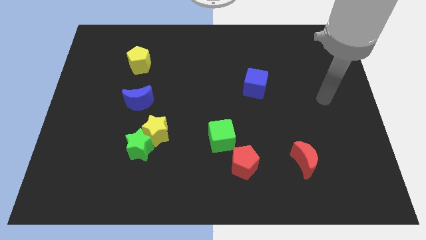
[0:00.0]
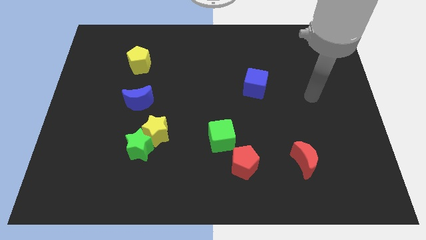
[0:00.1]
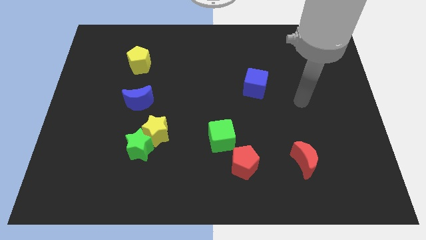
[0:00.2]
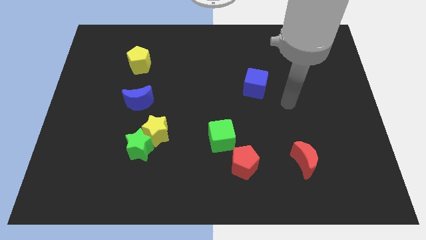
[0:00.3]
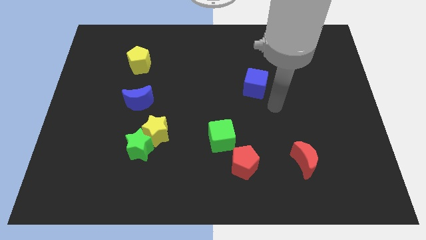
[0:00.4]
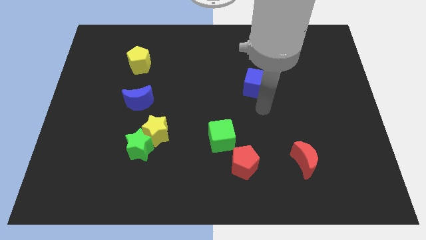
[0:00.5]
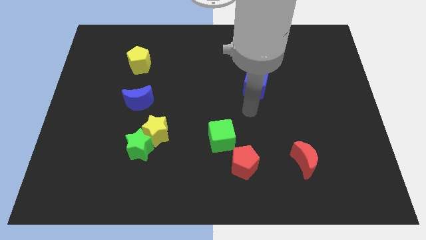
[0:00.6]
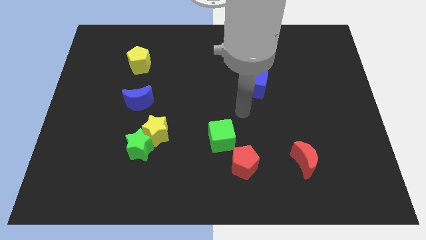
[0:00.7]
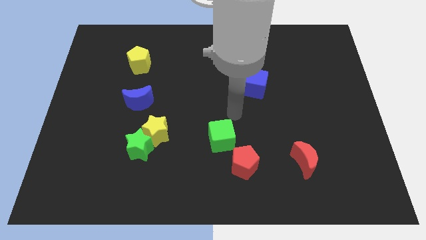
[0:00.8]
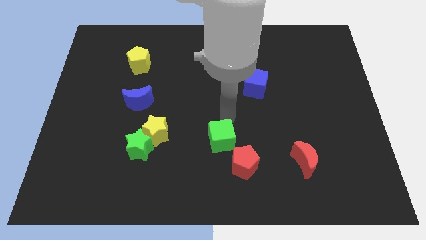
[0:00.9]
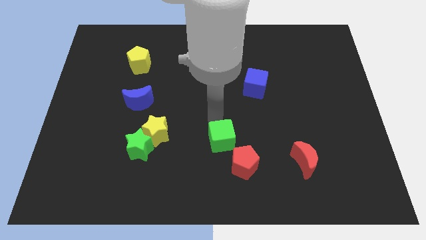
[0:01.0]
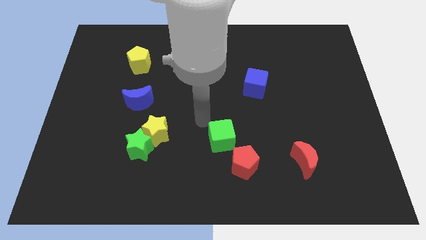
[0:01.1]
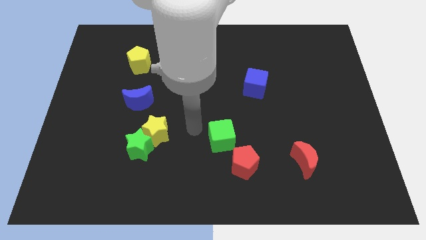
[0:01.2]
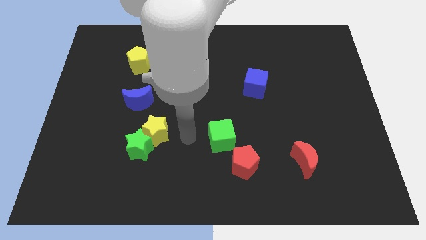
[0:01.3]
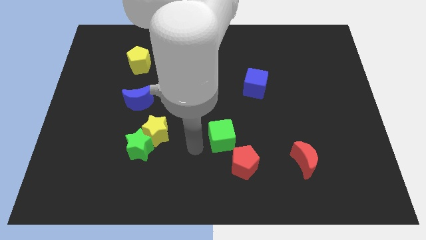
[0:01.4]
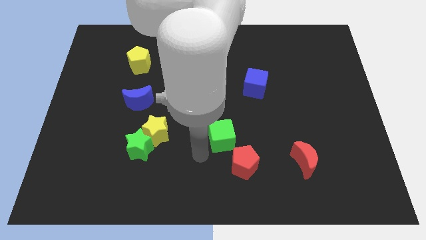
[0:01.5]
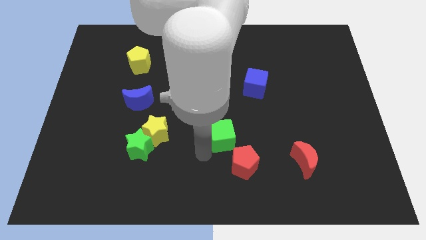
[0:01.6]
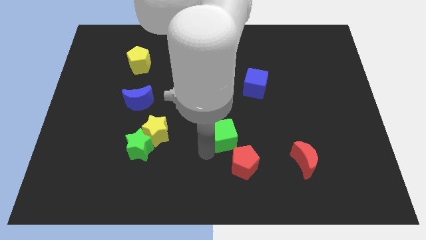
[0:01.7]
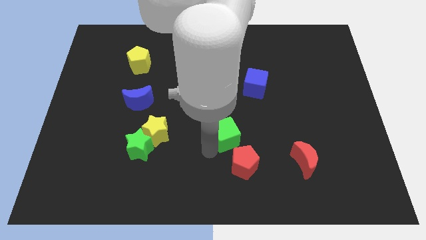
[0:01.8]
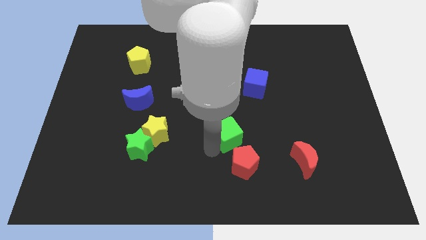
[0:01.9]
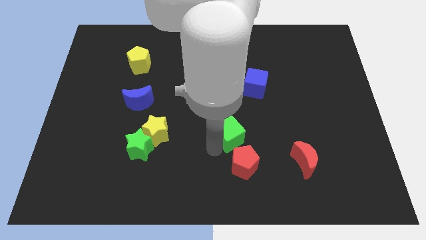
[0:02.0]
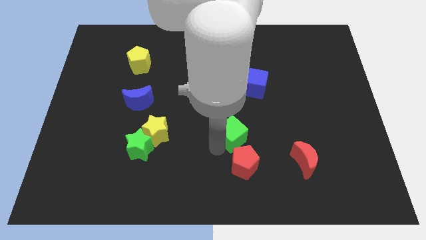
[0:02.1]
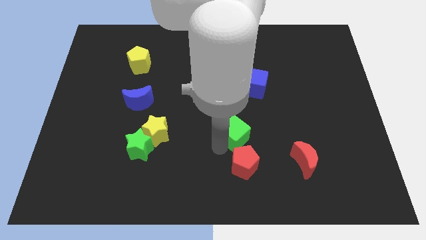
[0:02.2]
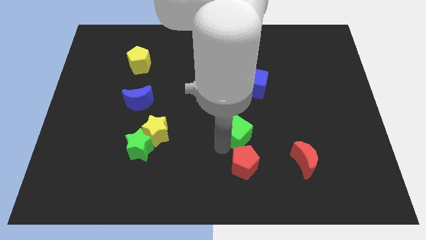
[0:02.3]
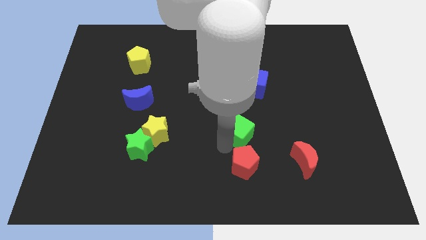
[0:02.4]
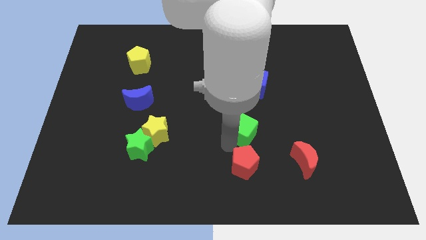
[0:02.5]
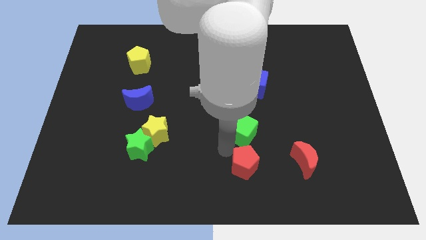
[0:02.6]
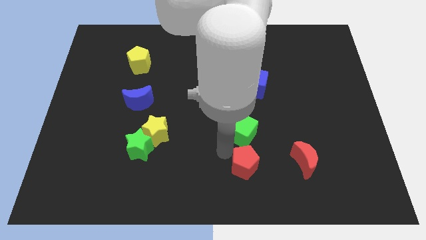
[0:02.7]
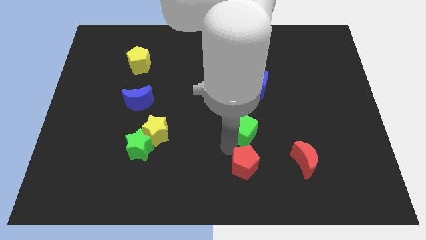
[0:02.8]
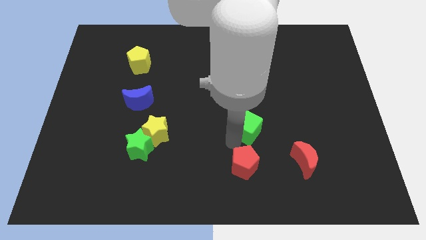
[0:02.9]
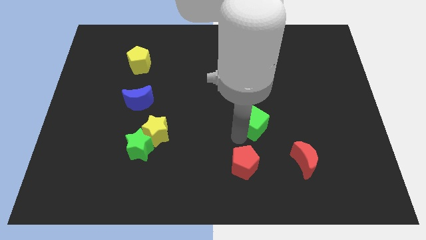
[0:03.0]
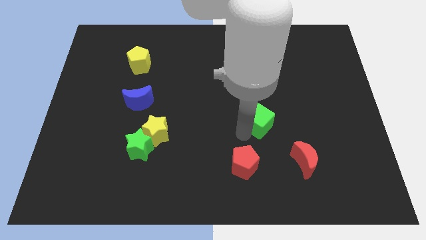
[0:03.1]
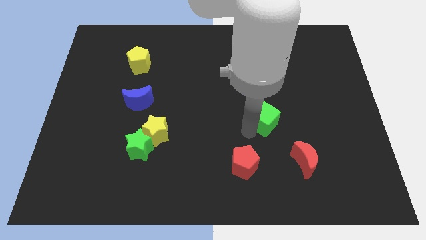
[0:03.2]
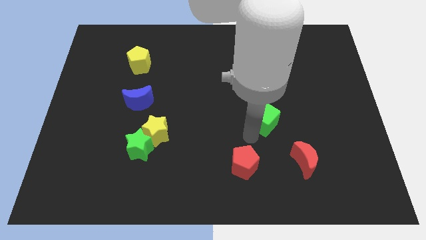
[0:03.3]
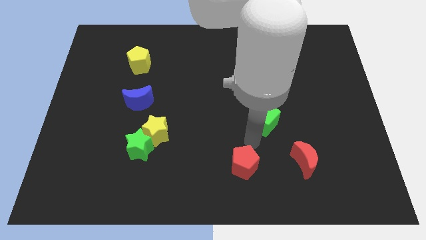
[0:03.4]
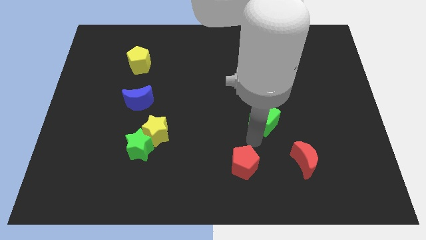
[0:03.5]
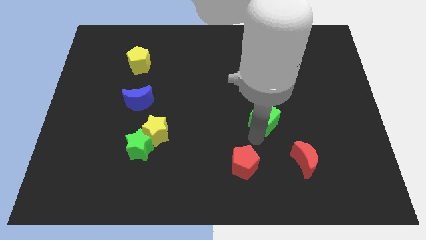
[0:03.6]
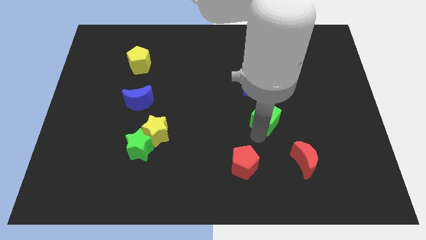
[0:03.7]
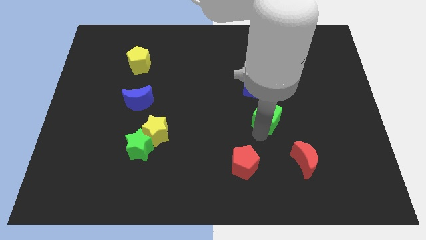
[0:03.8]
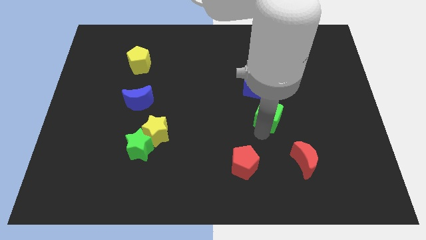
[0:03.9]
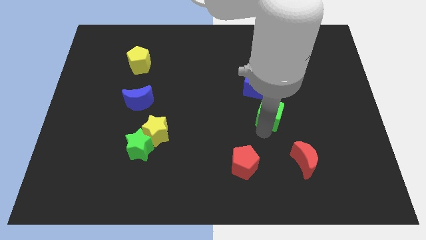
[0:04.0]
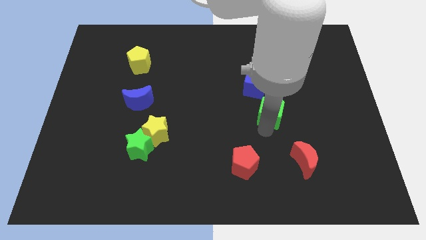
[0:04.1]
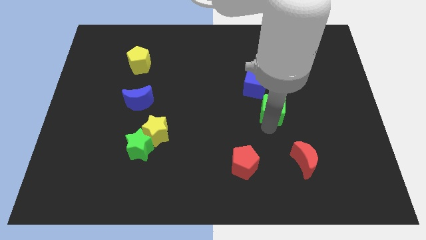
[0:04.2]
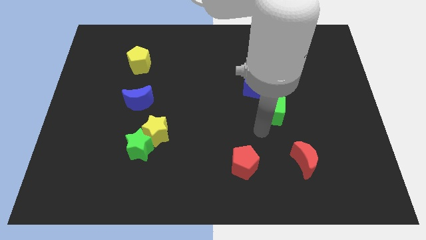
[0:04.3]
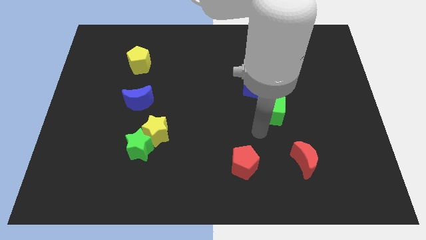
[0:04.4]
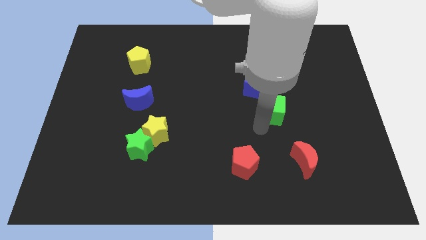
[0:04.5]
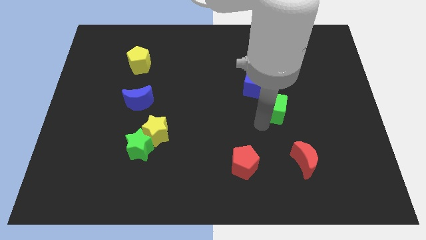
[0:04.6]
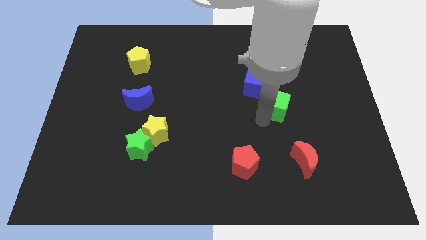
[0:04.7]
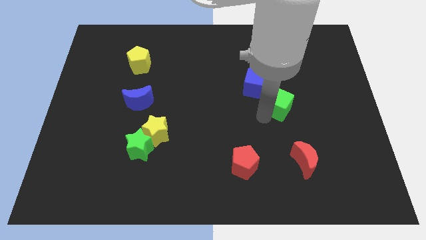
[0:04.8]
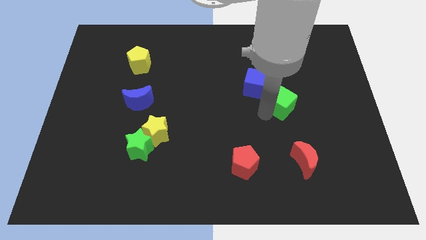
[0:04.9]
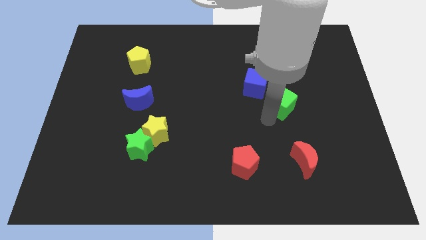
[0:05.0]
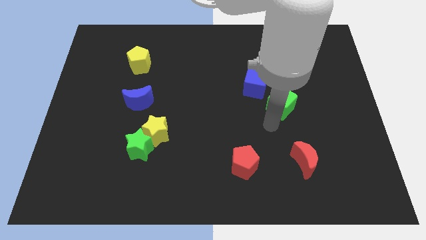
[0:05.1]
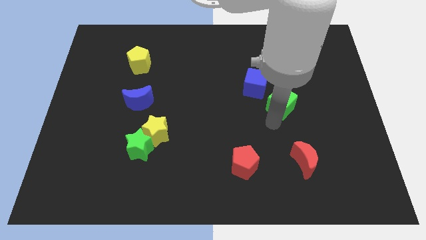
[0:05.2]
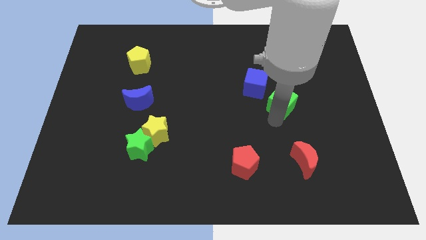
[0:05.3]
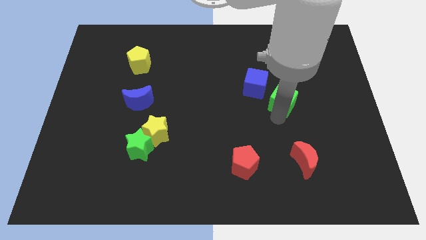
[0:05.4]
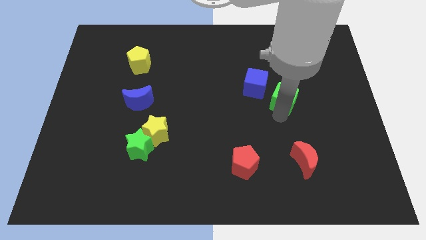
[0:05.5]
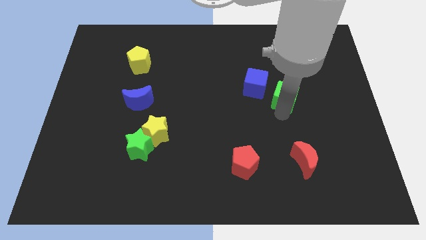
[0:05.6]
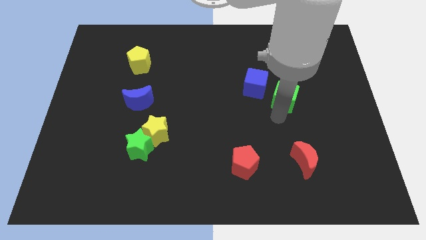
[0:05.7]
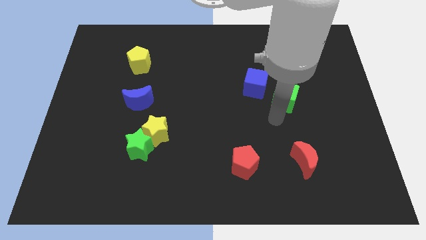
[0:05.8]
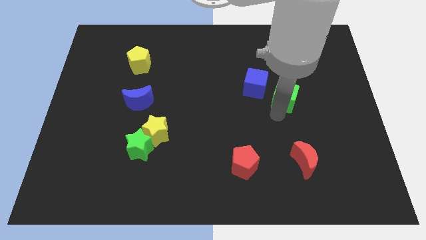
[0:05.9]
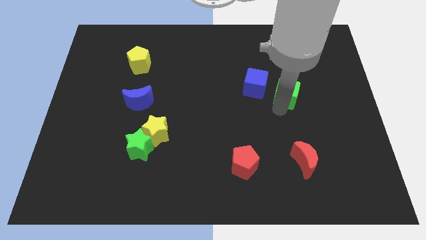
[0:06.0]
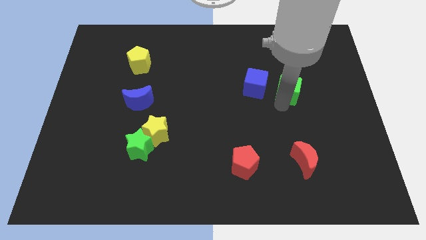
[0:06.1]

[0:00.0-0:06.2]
move the green cube upwards and right
